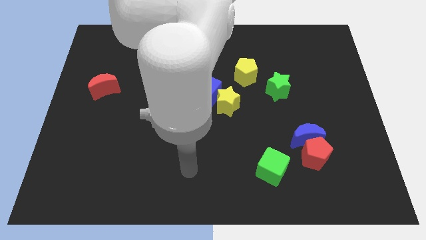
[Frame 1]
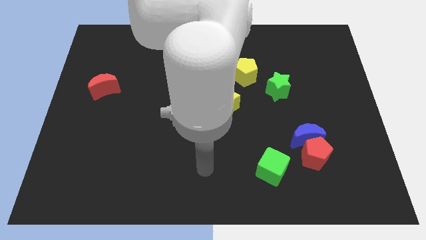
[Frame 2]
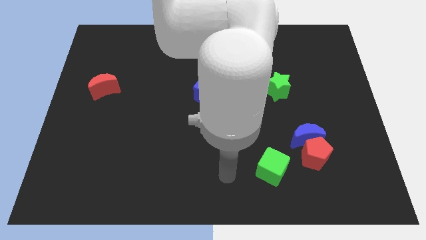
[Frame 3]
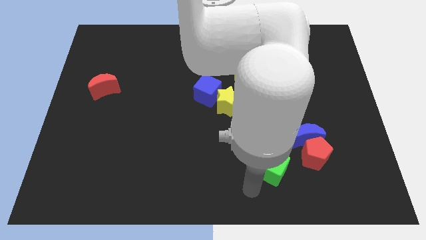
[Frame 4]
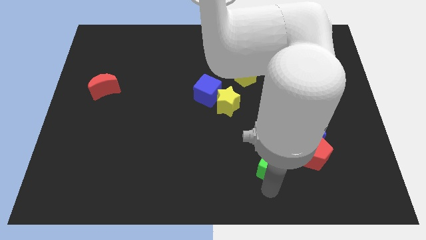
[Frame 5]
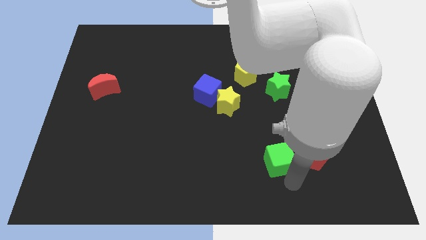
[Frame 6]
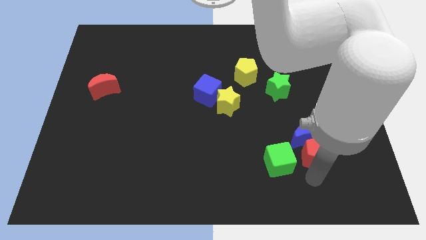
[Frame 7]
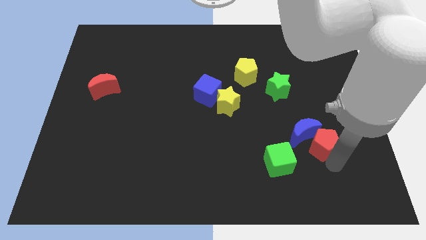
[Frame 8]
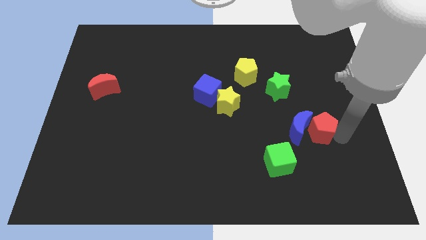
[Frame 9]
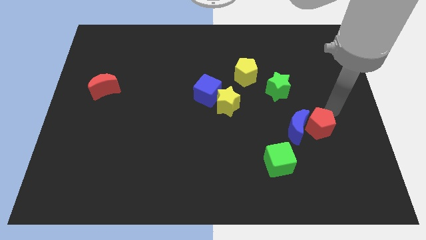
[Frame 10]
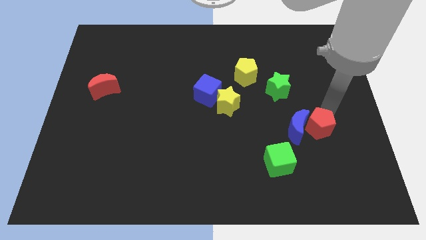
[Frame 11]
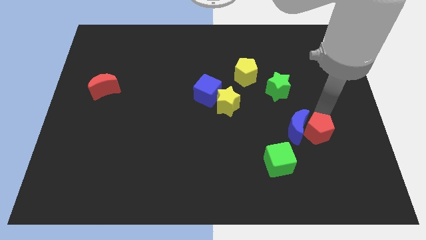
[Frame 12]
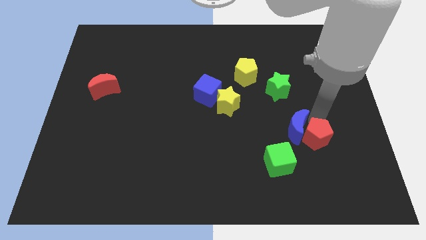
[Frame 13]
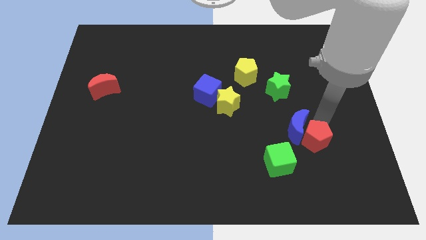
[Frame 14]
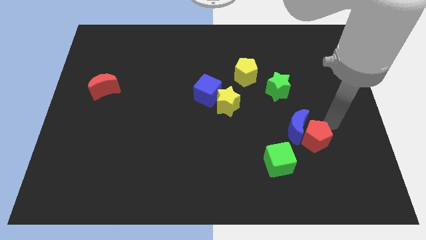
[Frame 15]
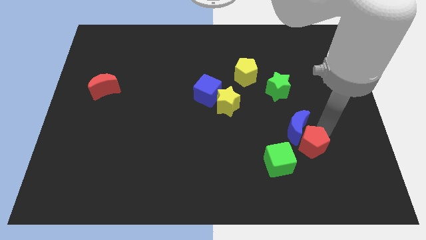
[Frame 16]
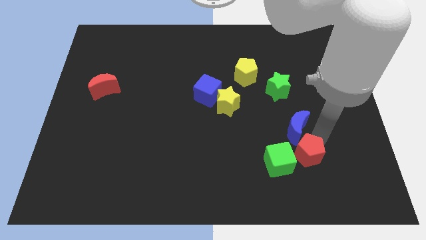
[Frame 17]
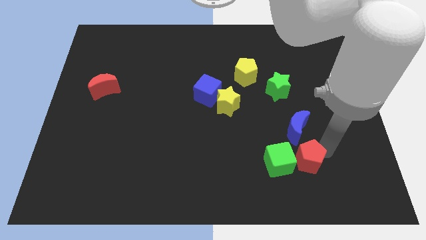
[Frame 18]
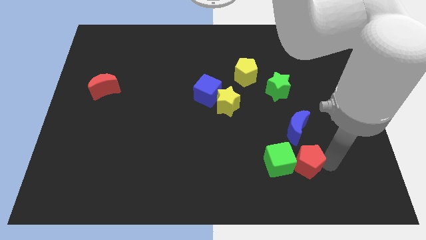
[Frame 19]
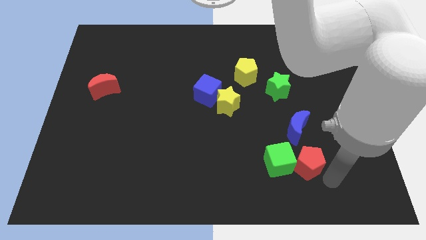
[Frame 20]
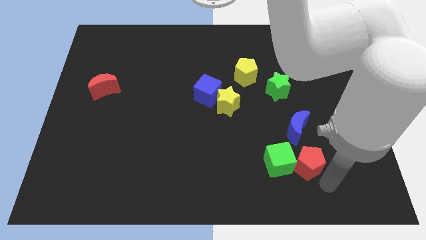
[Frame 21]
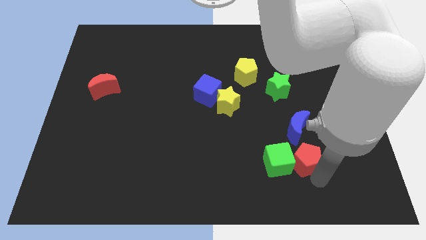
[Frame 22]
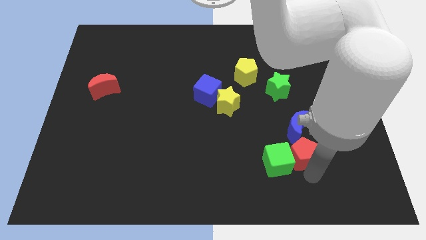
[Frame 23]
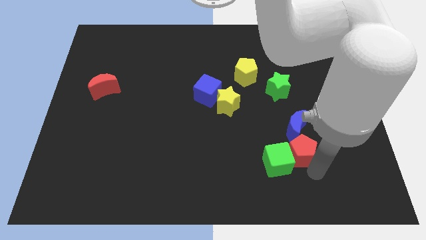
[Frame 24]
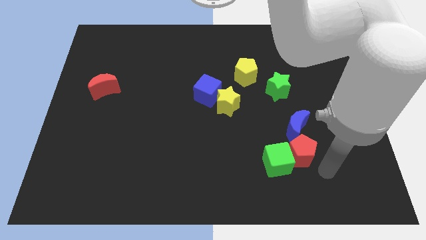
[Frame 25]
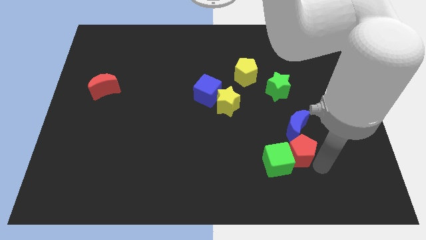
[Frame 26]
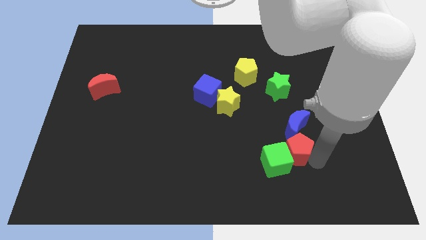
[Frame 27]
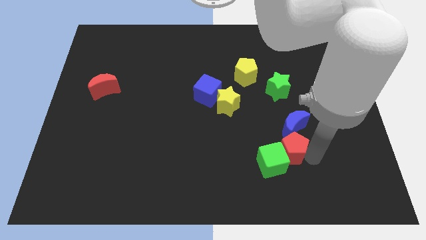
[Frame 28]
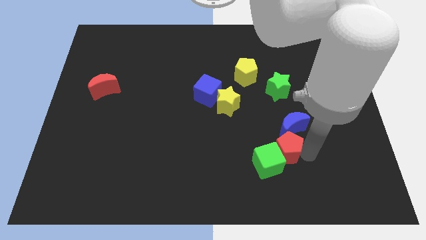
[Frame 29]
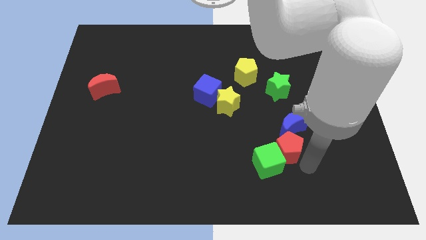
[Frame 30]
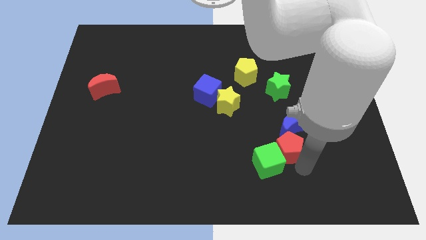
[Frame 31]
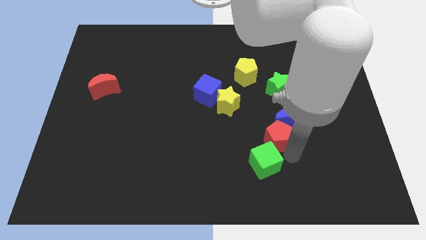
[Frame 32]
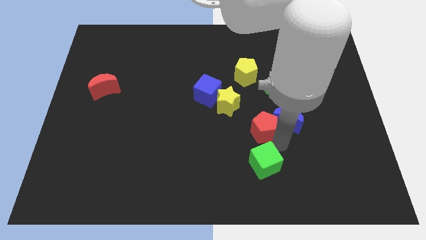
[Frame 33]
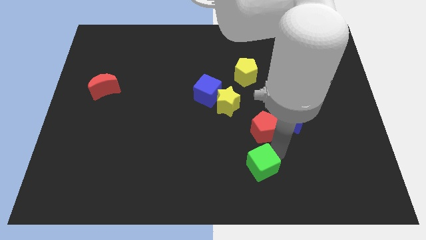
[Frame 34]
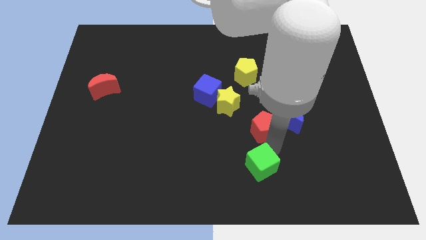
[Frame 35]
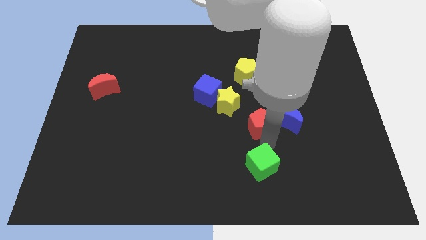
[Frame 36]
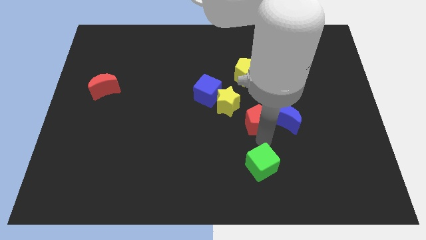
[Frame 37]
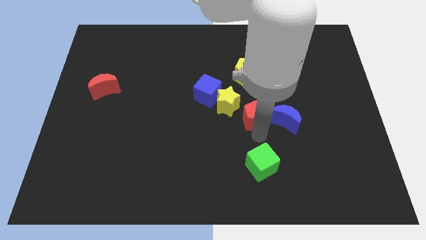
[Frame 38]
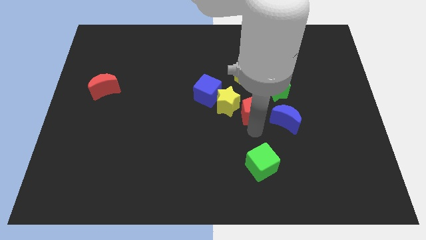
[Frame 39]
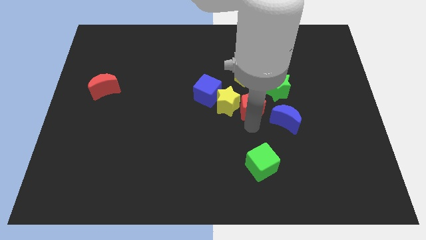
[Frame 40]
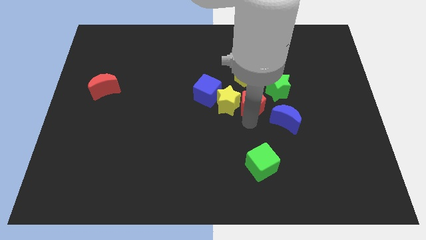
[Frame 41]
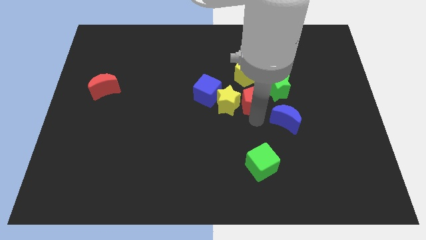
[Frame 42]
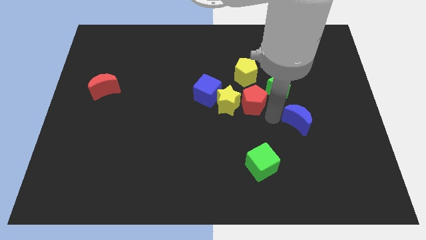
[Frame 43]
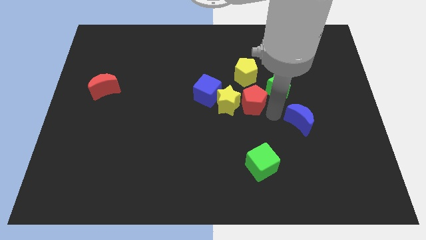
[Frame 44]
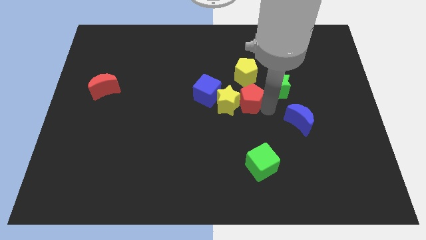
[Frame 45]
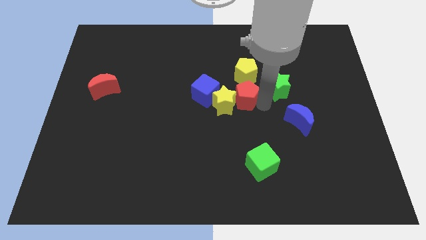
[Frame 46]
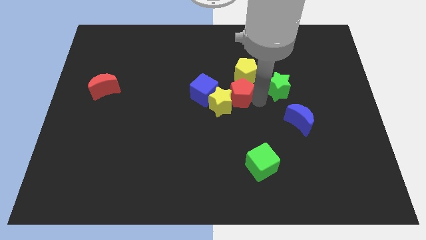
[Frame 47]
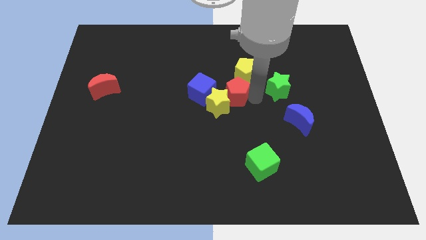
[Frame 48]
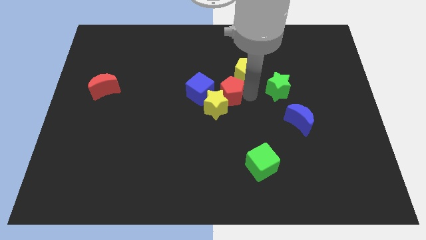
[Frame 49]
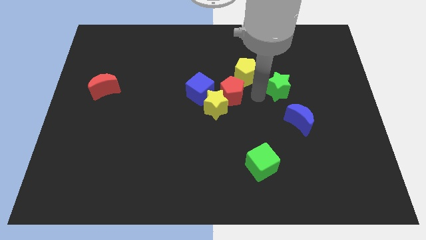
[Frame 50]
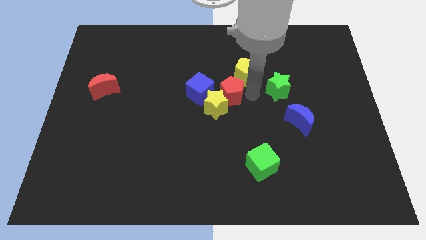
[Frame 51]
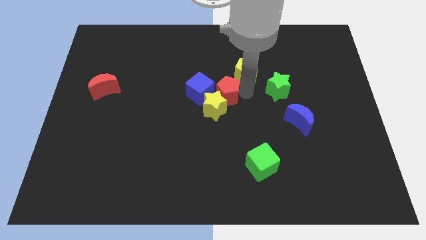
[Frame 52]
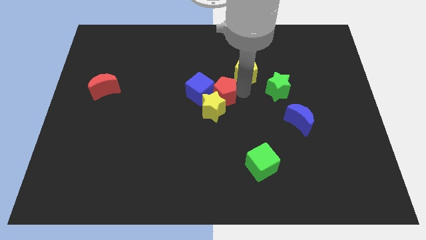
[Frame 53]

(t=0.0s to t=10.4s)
push the red pentagon next to the blue cube

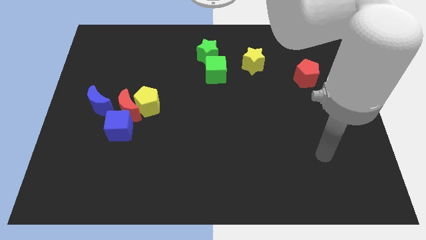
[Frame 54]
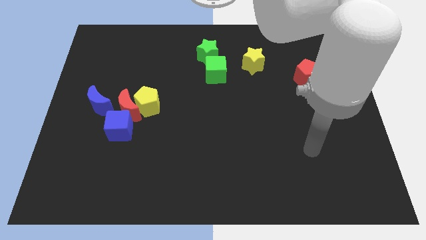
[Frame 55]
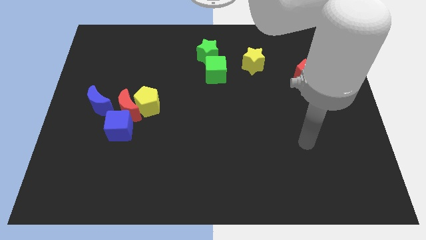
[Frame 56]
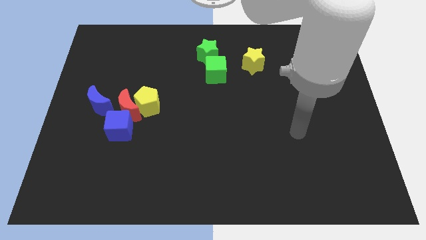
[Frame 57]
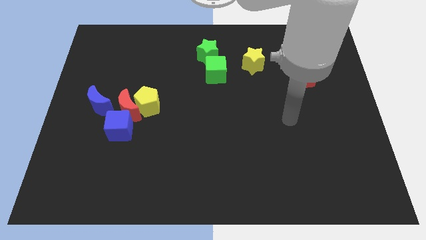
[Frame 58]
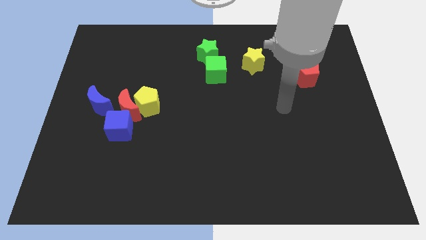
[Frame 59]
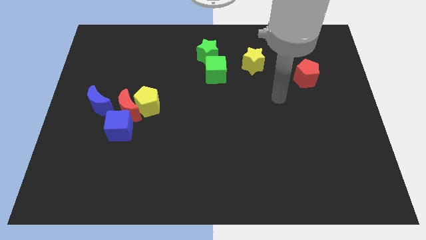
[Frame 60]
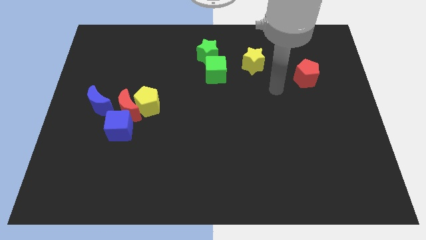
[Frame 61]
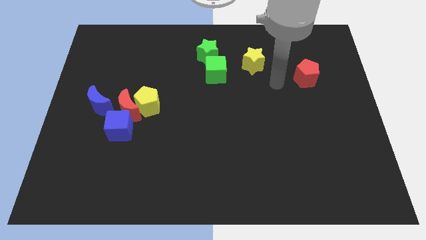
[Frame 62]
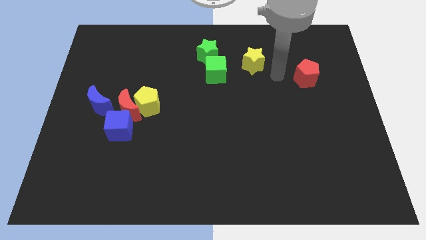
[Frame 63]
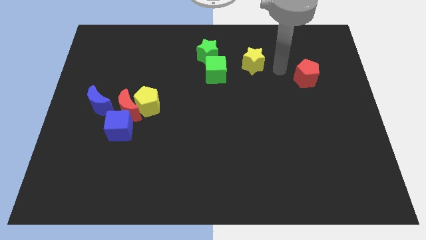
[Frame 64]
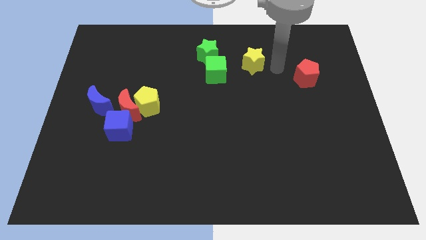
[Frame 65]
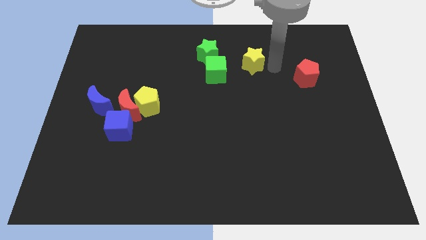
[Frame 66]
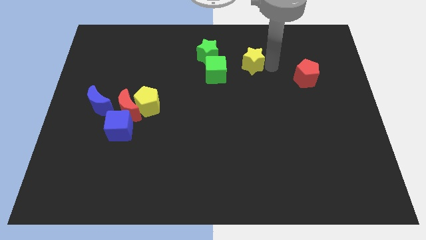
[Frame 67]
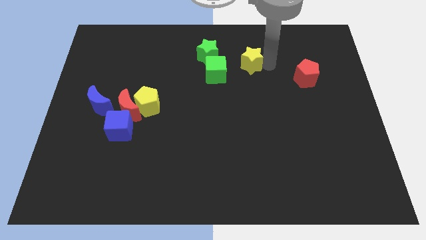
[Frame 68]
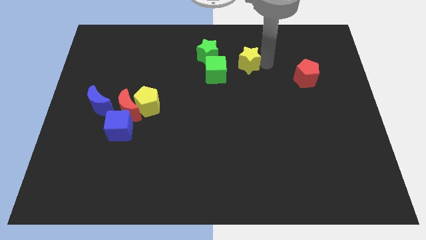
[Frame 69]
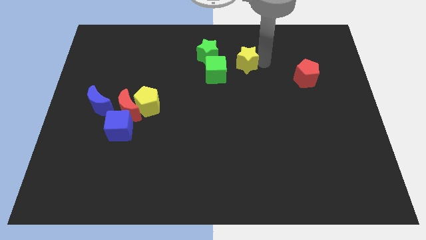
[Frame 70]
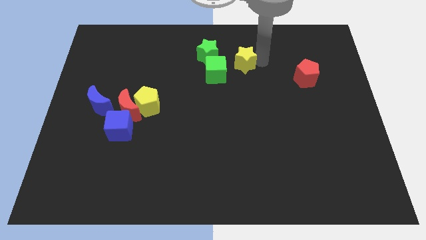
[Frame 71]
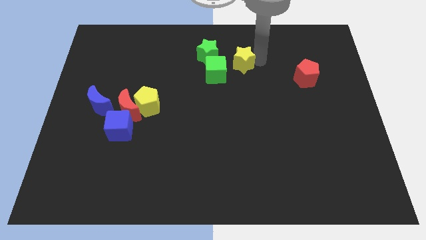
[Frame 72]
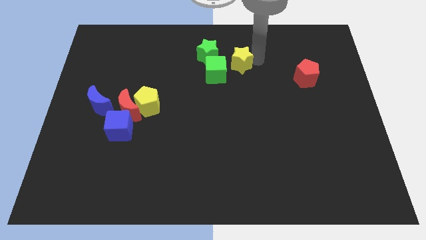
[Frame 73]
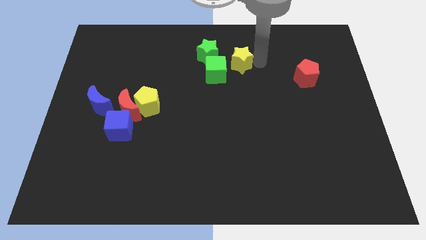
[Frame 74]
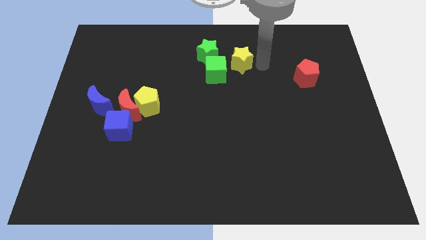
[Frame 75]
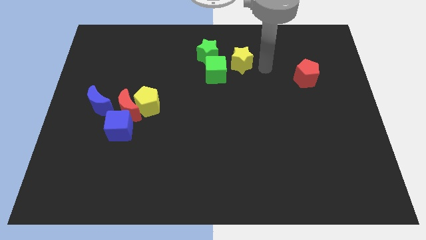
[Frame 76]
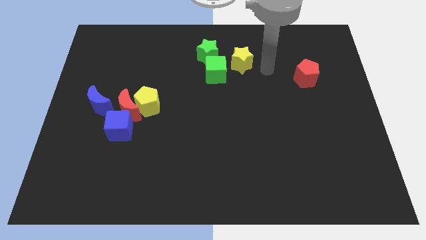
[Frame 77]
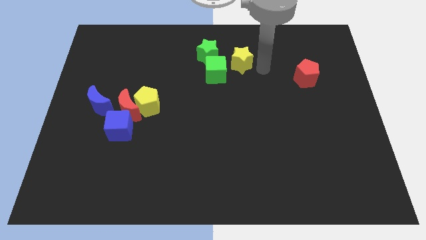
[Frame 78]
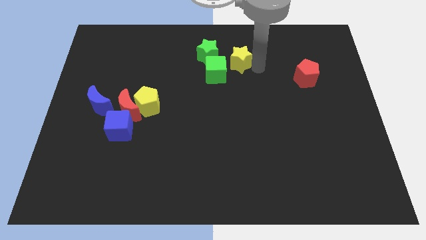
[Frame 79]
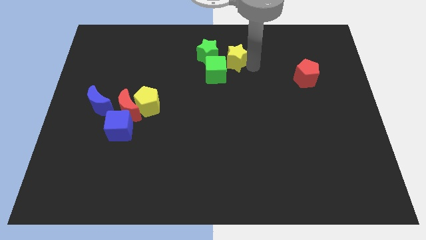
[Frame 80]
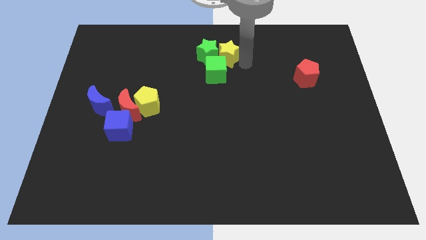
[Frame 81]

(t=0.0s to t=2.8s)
slide the yellow star next to the green star
